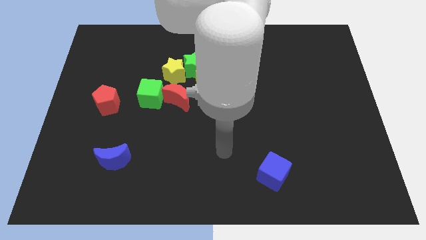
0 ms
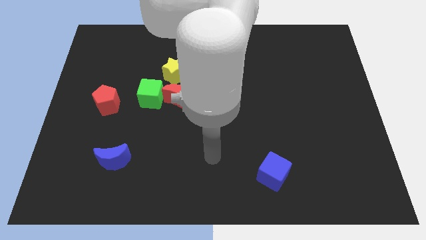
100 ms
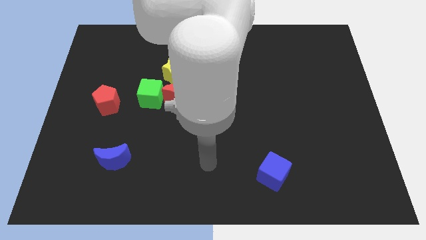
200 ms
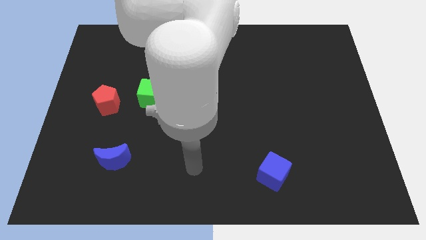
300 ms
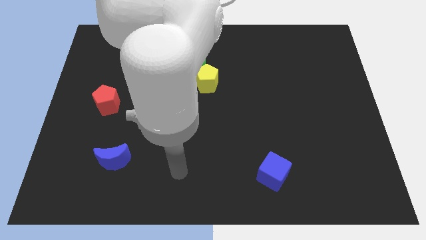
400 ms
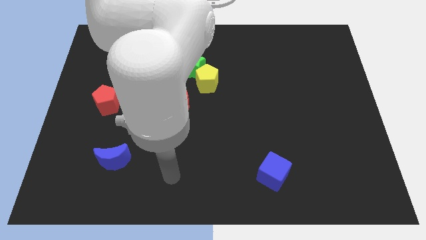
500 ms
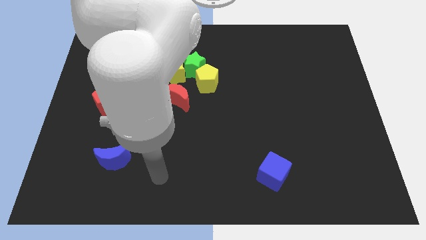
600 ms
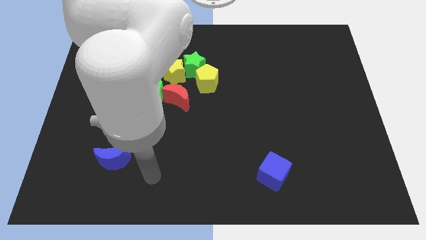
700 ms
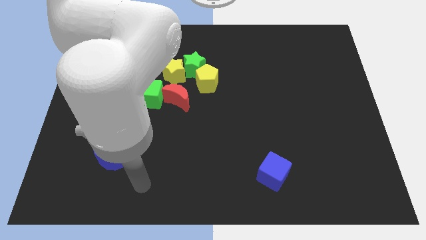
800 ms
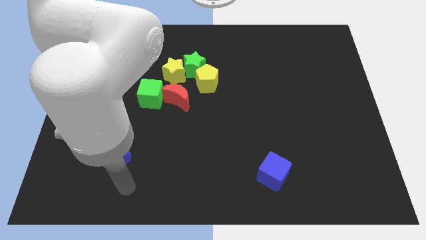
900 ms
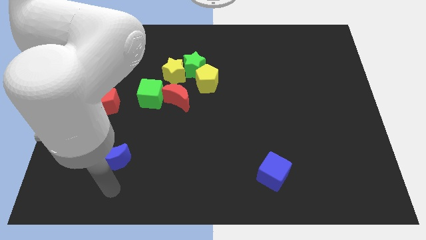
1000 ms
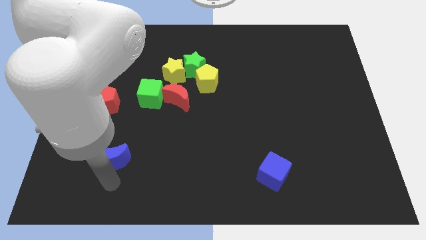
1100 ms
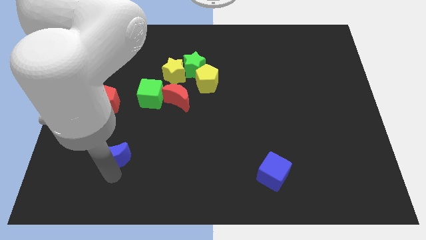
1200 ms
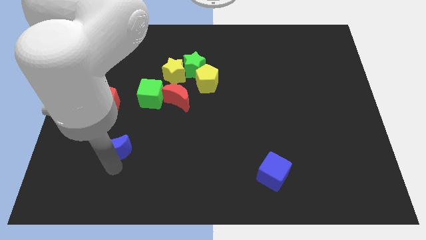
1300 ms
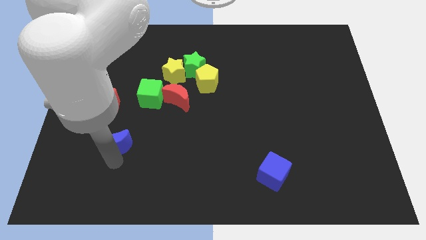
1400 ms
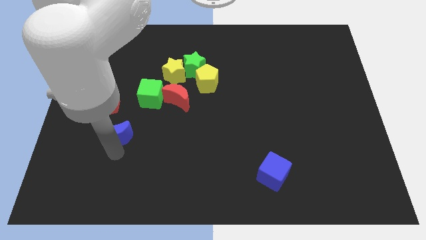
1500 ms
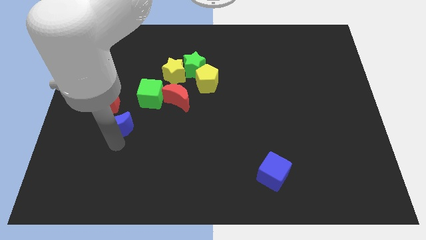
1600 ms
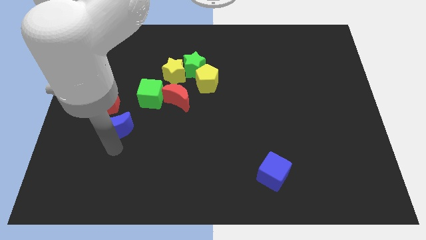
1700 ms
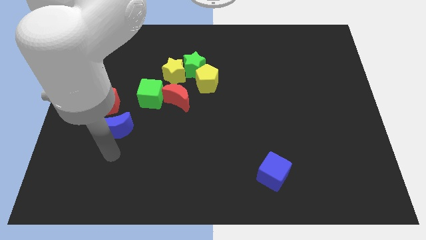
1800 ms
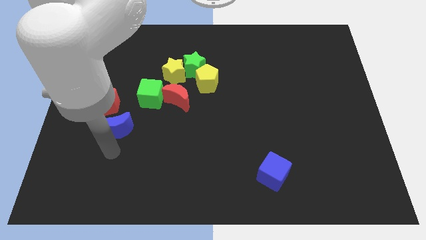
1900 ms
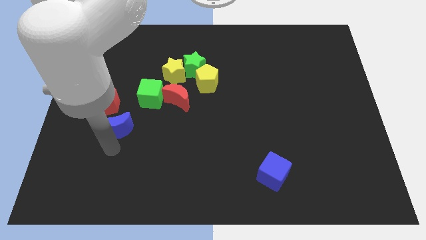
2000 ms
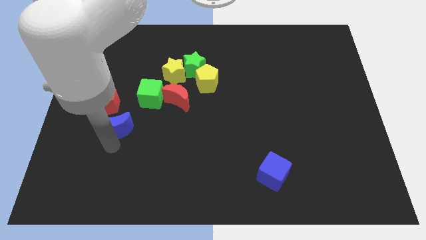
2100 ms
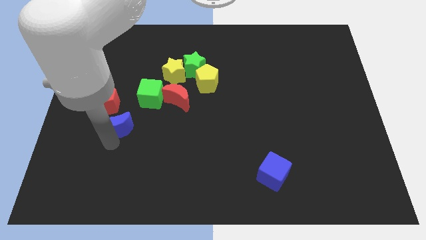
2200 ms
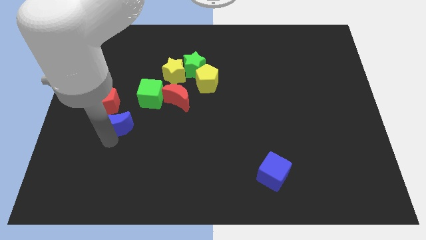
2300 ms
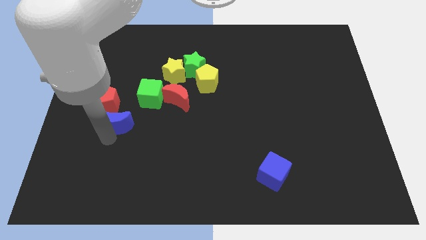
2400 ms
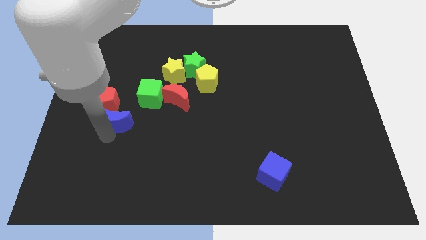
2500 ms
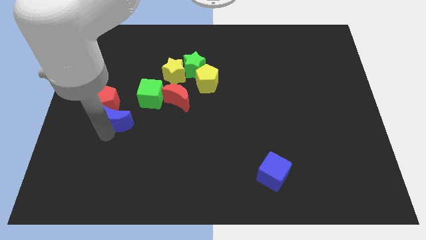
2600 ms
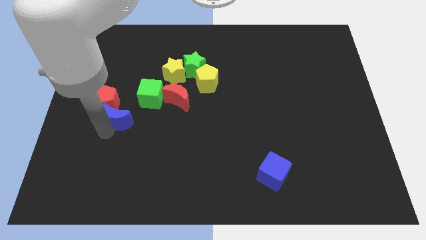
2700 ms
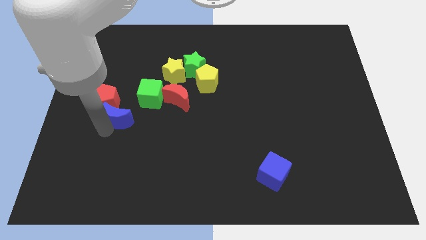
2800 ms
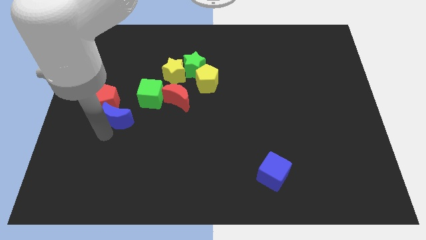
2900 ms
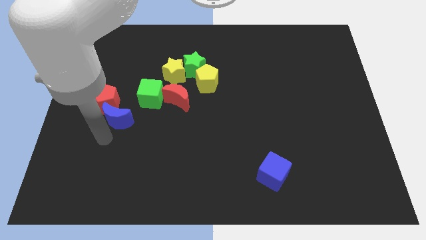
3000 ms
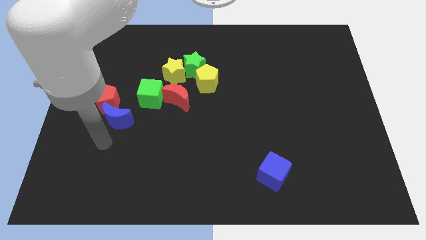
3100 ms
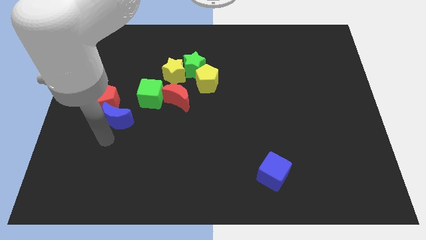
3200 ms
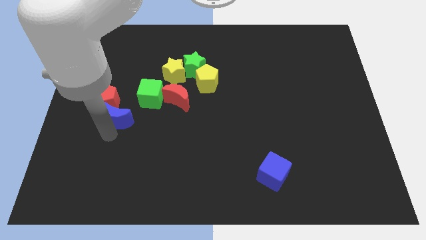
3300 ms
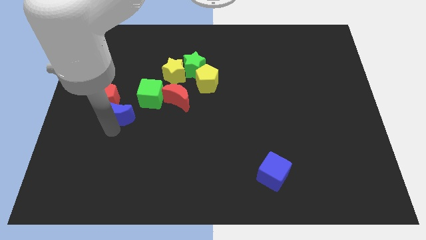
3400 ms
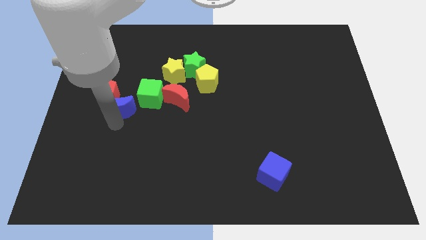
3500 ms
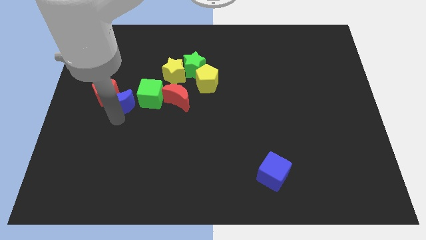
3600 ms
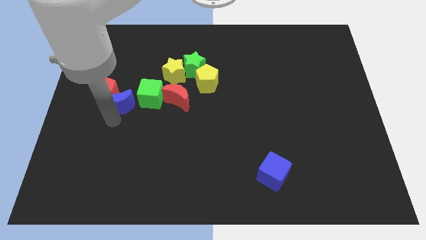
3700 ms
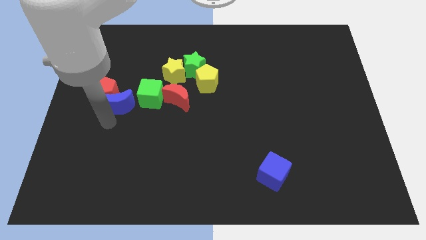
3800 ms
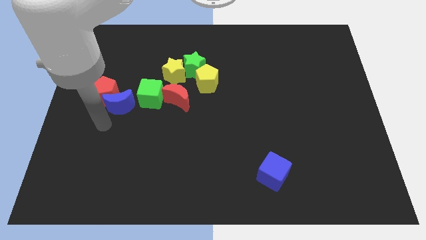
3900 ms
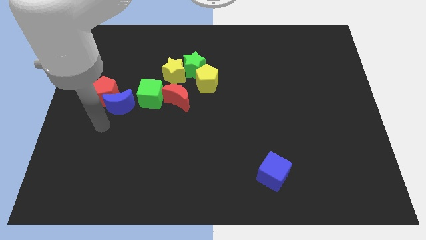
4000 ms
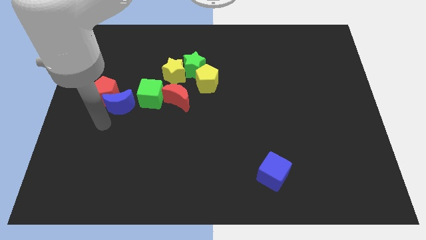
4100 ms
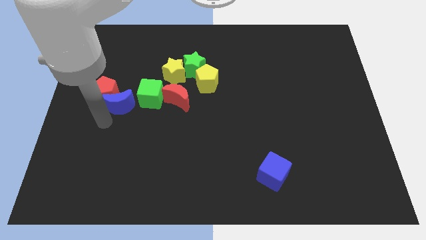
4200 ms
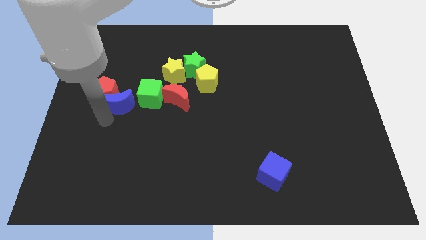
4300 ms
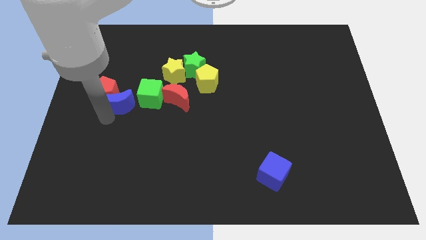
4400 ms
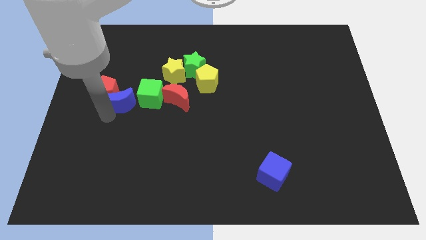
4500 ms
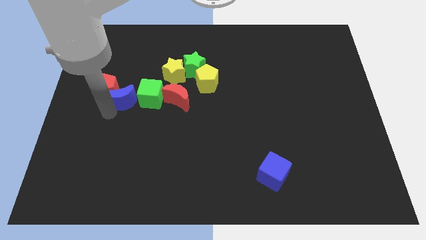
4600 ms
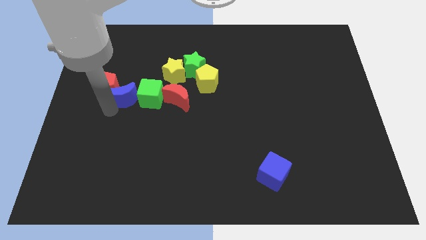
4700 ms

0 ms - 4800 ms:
put the blue moon to the top left of the green cube

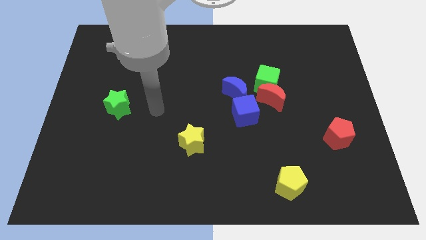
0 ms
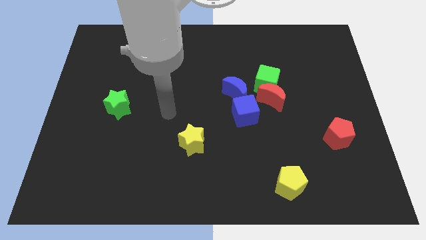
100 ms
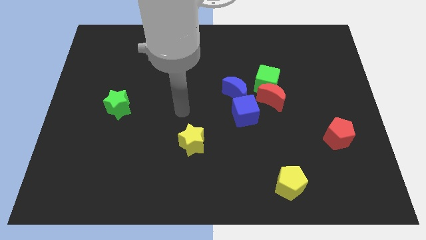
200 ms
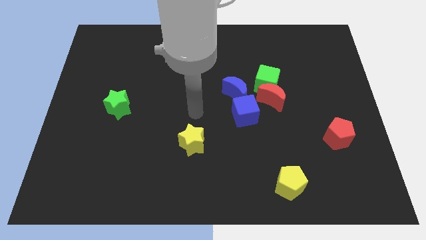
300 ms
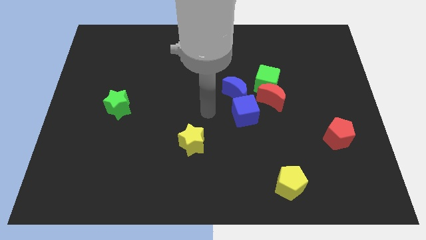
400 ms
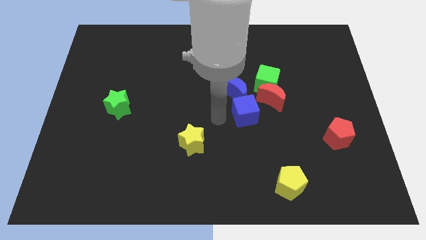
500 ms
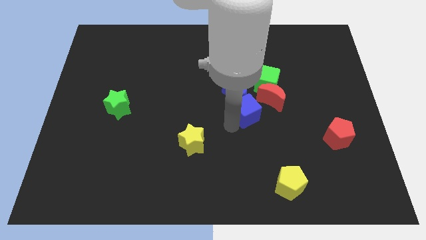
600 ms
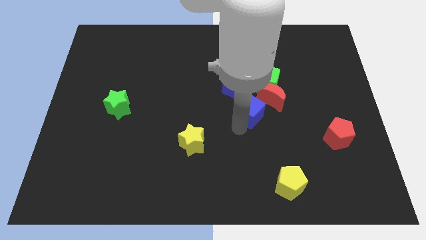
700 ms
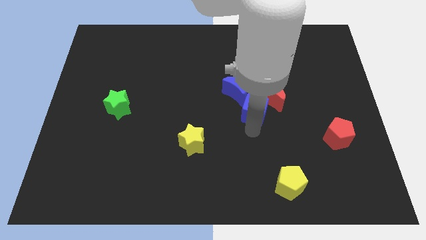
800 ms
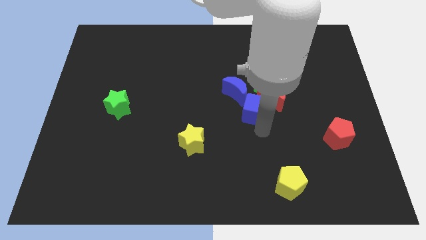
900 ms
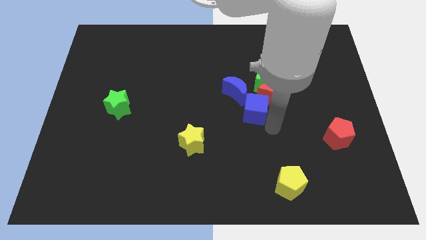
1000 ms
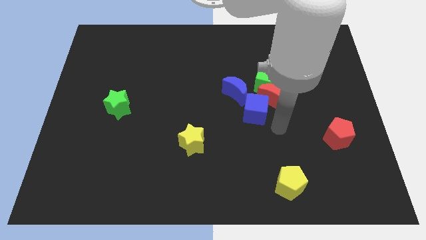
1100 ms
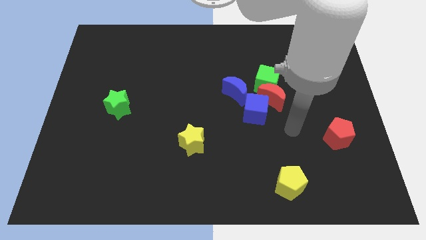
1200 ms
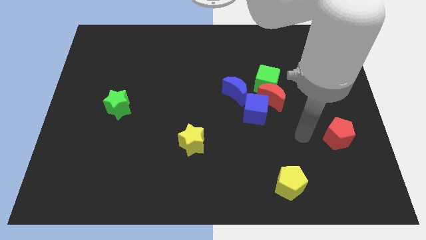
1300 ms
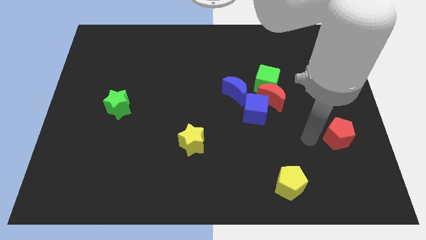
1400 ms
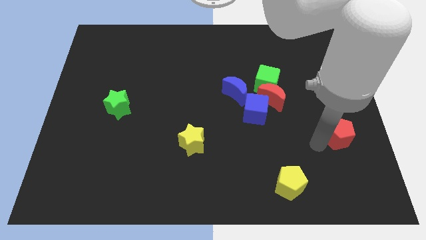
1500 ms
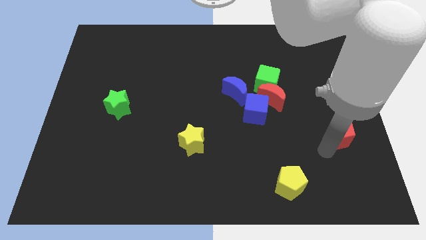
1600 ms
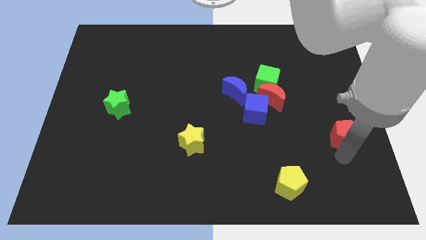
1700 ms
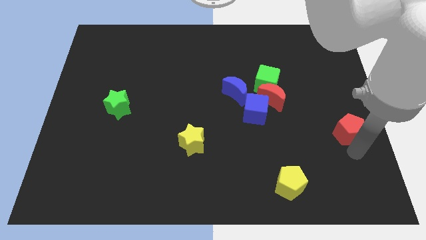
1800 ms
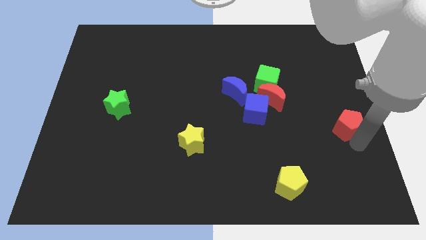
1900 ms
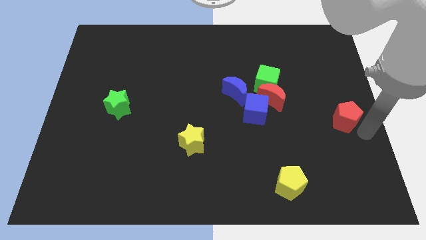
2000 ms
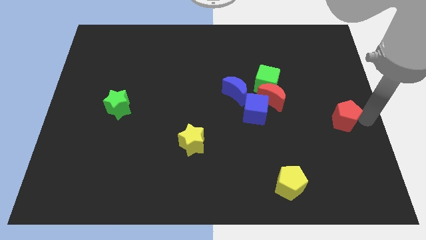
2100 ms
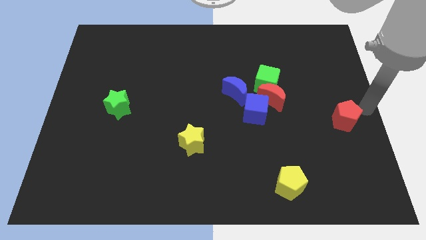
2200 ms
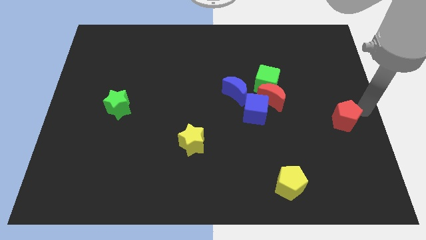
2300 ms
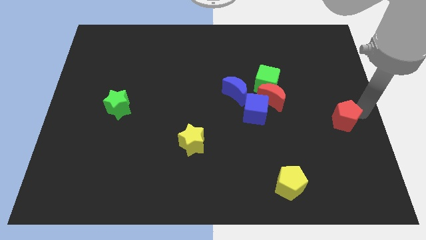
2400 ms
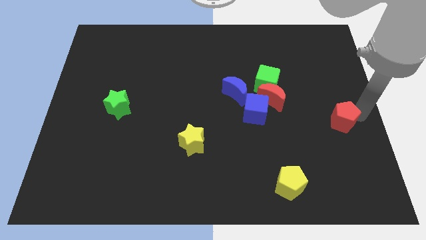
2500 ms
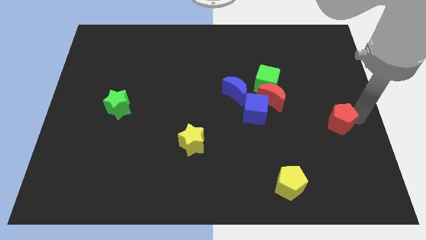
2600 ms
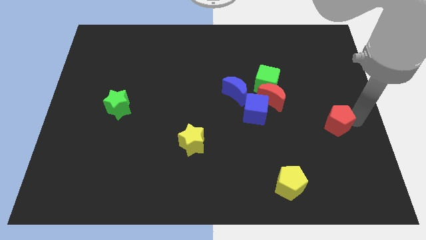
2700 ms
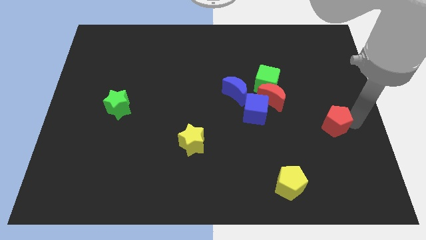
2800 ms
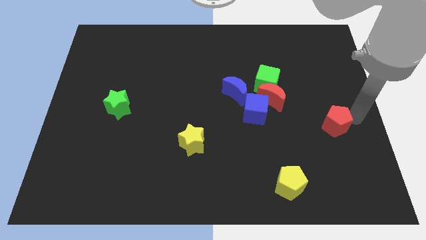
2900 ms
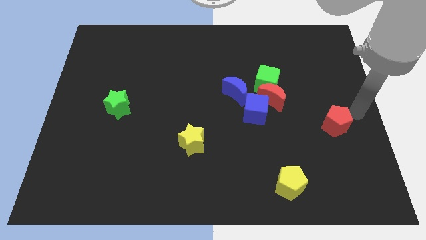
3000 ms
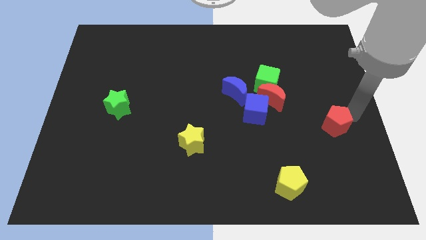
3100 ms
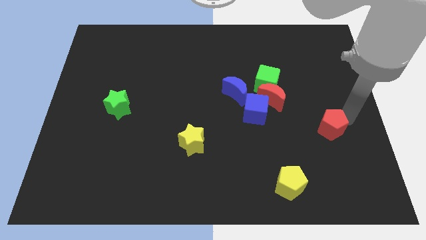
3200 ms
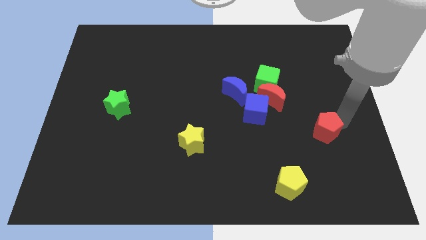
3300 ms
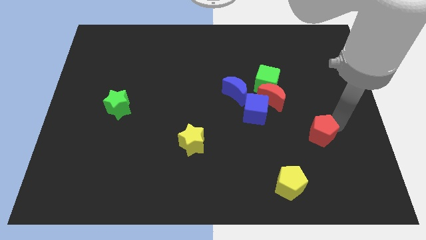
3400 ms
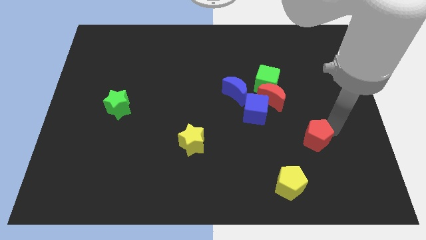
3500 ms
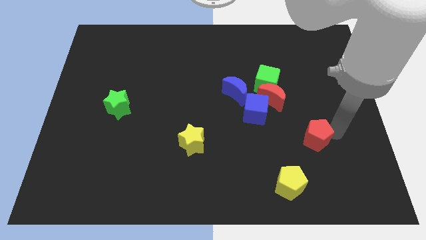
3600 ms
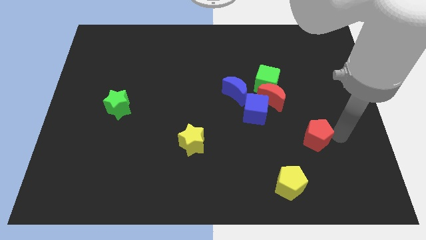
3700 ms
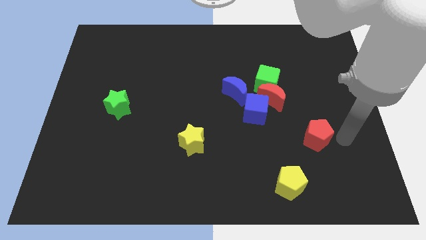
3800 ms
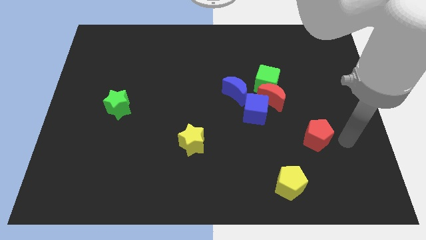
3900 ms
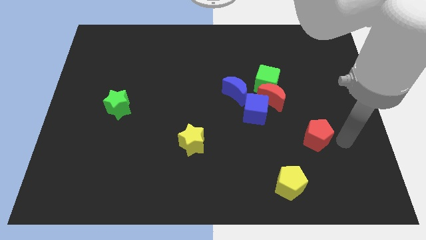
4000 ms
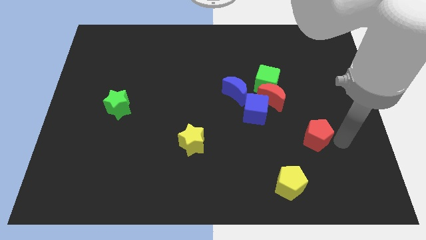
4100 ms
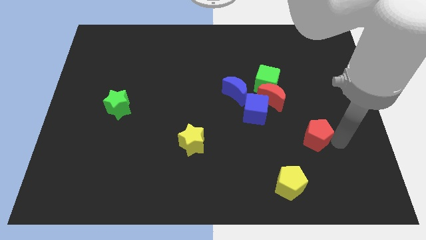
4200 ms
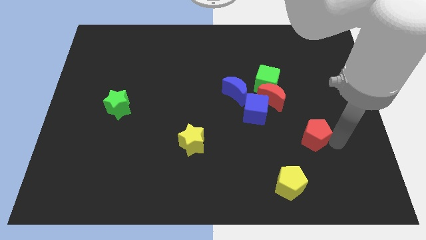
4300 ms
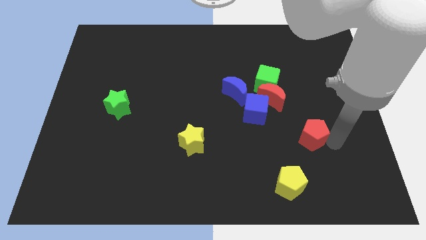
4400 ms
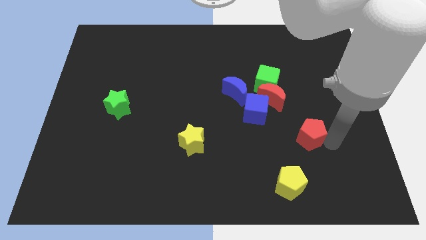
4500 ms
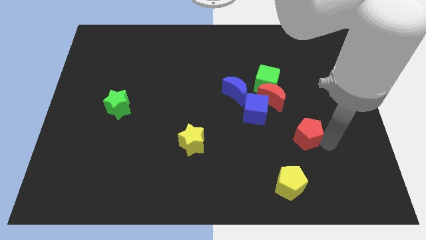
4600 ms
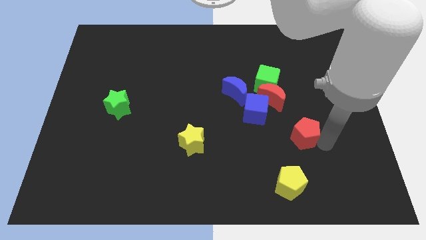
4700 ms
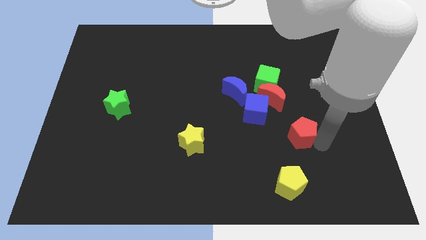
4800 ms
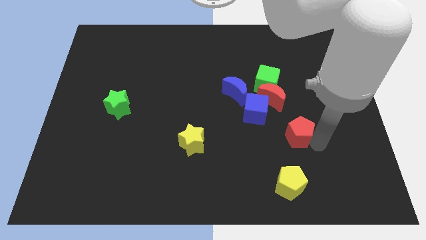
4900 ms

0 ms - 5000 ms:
put the red pentagon to the bottom of the red moon
